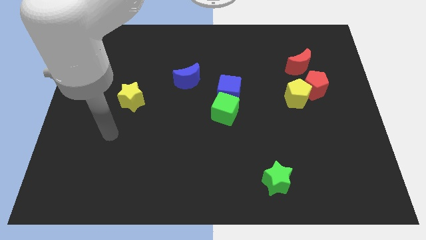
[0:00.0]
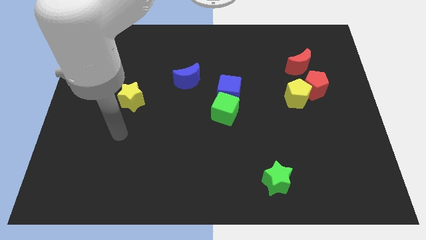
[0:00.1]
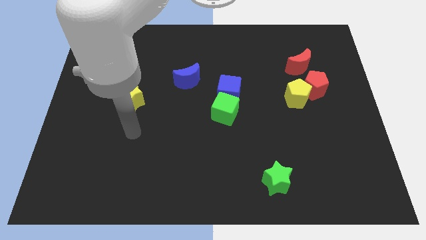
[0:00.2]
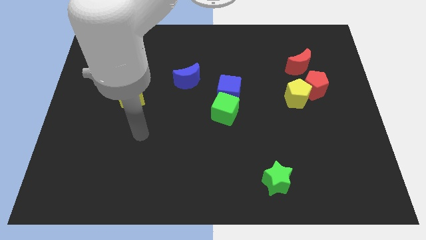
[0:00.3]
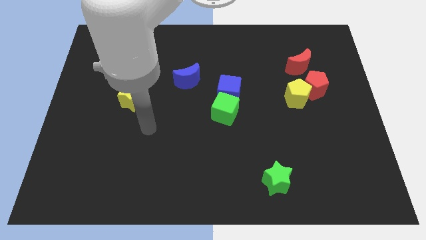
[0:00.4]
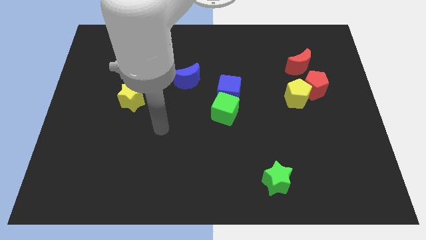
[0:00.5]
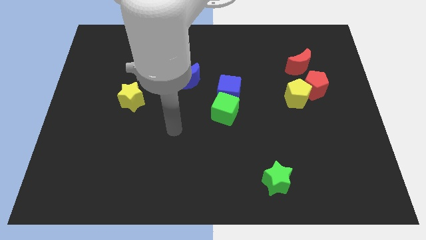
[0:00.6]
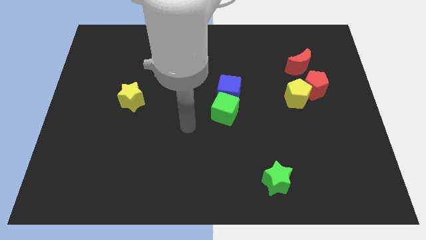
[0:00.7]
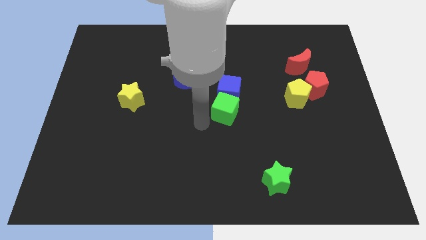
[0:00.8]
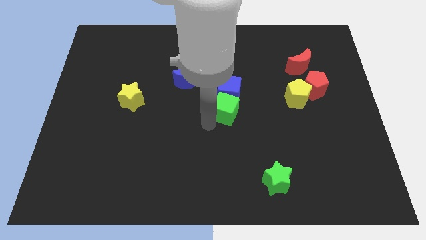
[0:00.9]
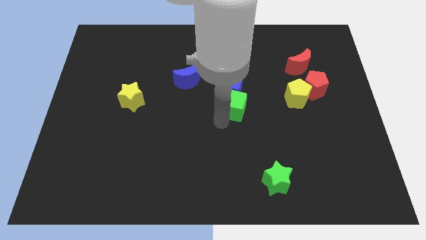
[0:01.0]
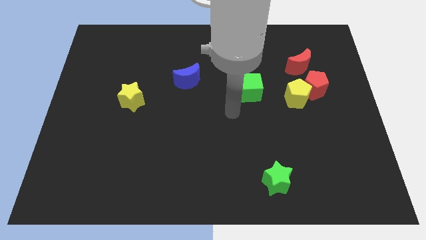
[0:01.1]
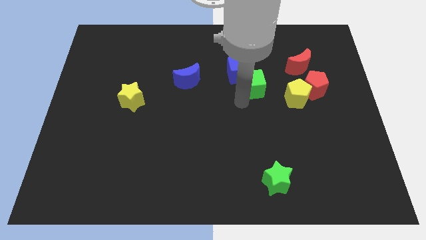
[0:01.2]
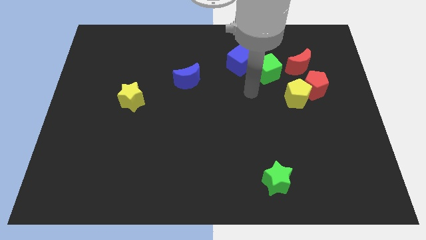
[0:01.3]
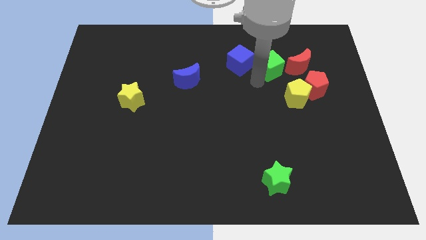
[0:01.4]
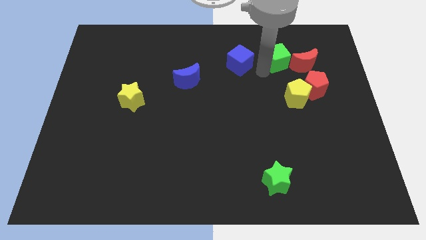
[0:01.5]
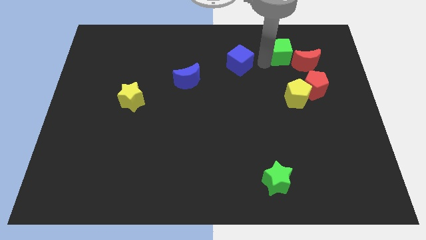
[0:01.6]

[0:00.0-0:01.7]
separate the blue cube from the green cube

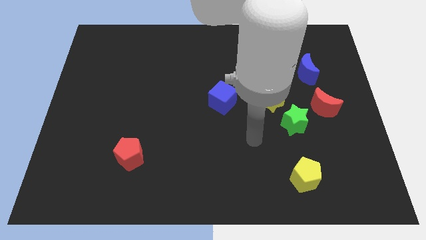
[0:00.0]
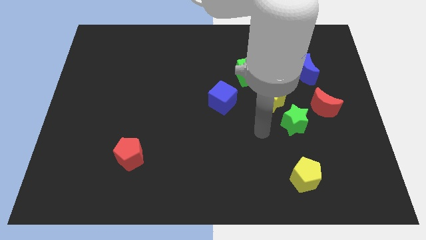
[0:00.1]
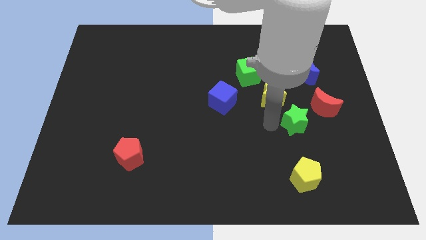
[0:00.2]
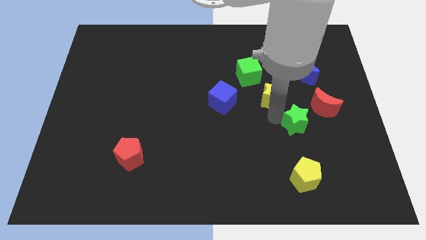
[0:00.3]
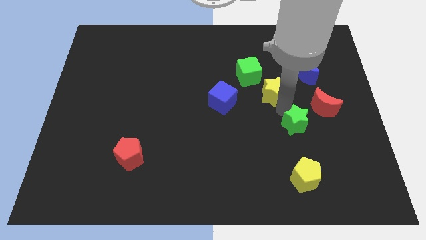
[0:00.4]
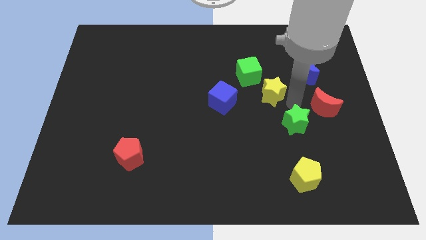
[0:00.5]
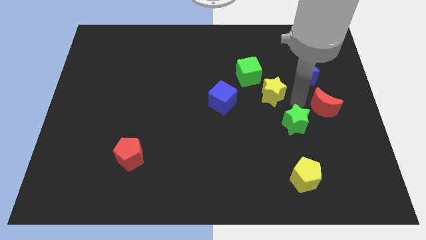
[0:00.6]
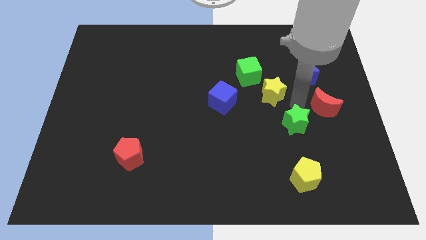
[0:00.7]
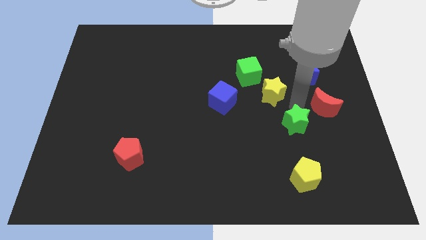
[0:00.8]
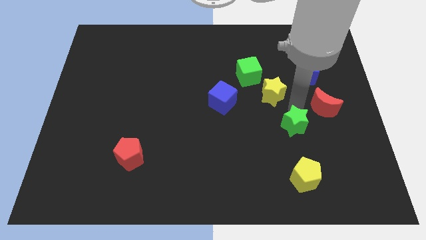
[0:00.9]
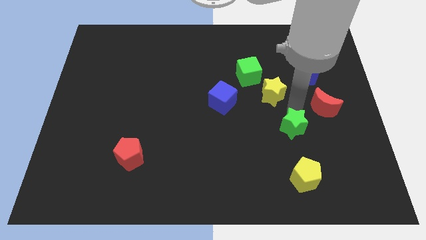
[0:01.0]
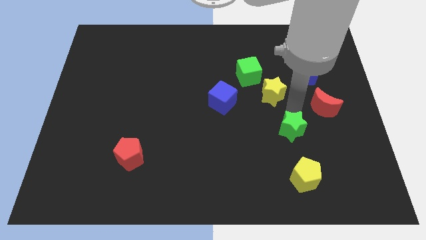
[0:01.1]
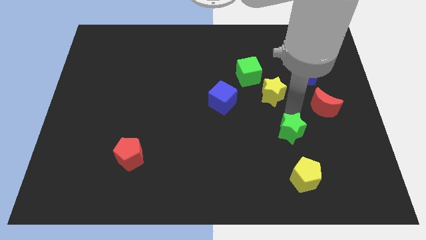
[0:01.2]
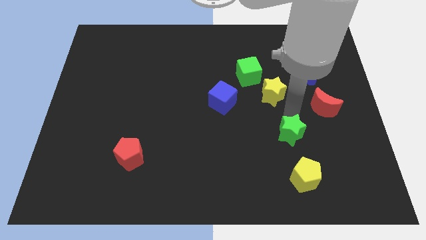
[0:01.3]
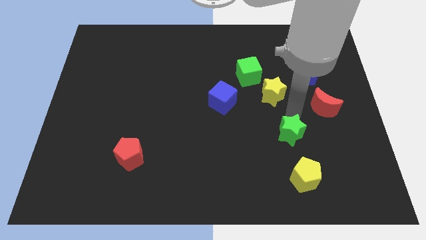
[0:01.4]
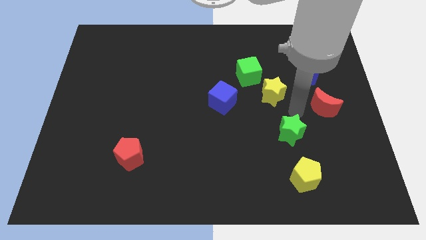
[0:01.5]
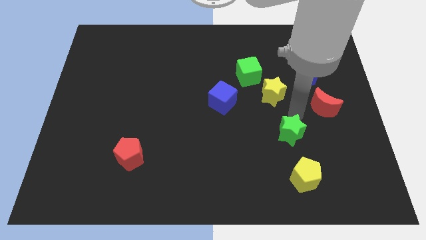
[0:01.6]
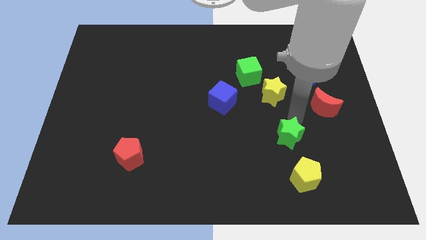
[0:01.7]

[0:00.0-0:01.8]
move the green star away from the yellow star and red moon

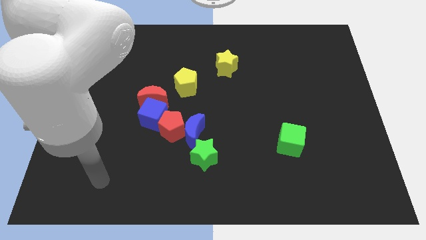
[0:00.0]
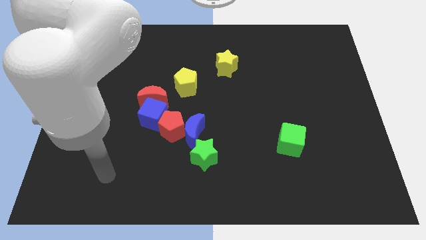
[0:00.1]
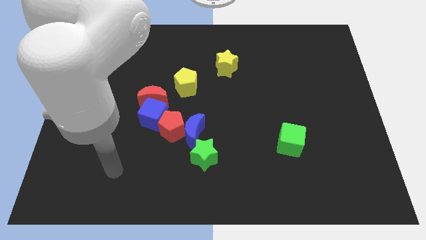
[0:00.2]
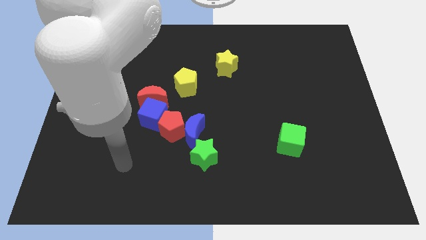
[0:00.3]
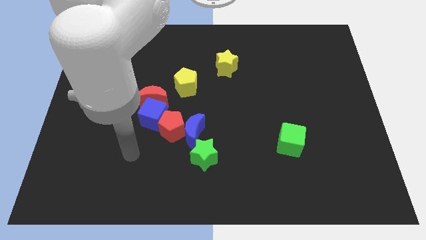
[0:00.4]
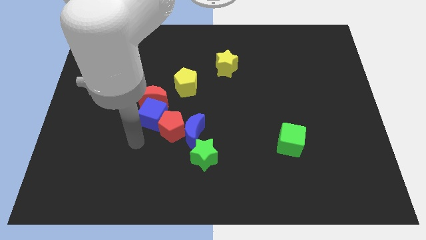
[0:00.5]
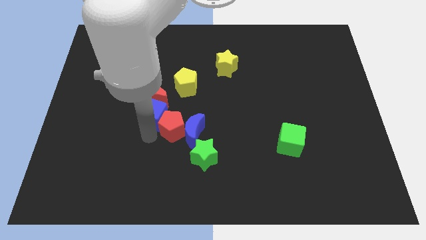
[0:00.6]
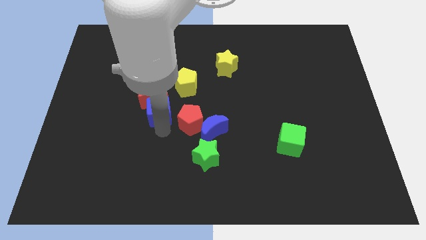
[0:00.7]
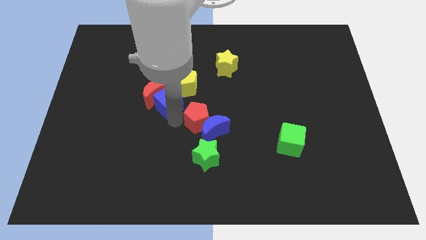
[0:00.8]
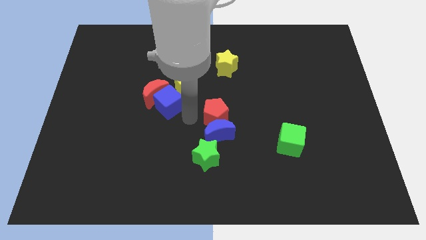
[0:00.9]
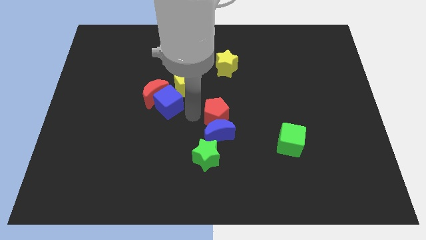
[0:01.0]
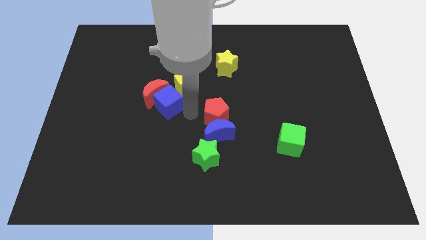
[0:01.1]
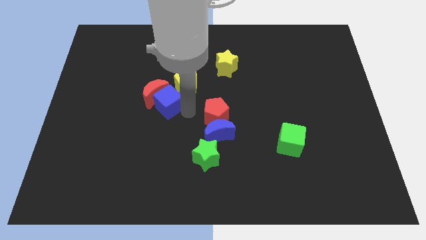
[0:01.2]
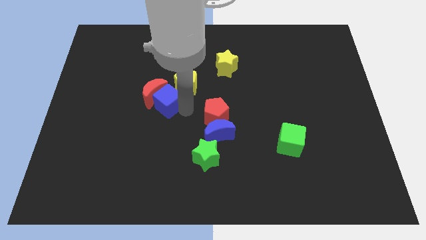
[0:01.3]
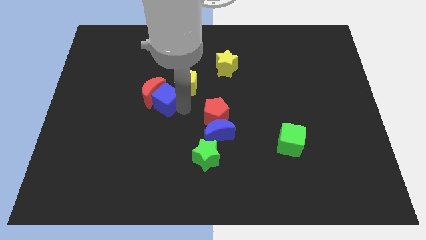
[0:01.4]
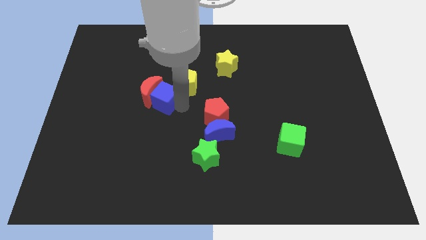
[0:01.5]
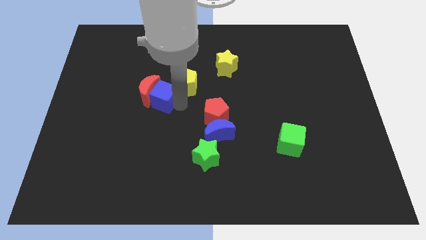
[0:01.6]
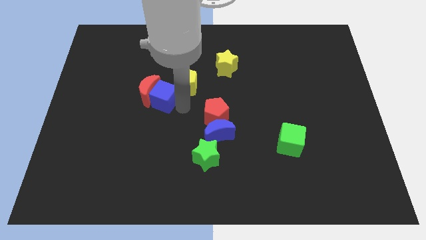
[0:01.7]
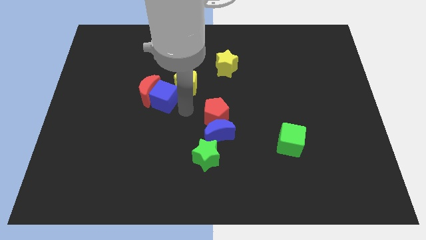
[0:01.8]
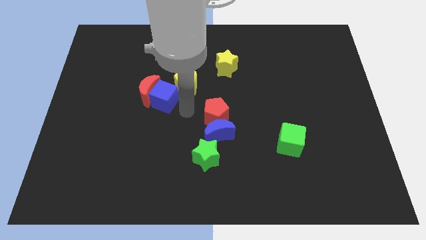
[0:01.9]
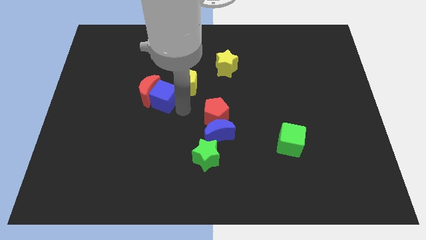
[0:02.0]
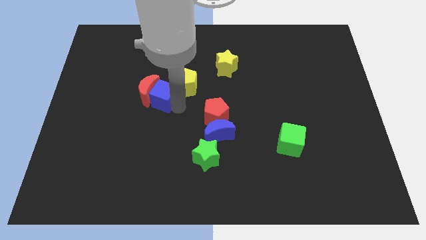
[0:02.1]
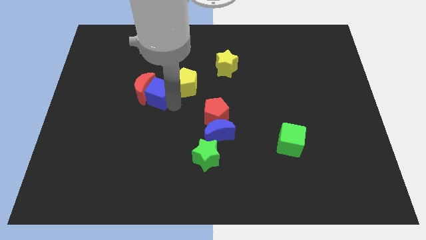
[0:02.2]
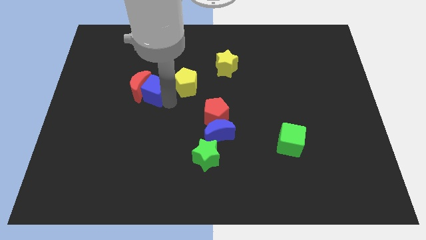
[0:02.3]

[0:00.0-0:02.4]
separate the blue cube from the red moon, red pentagon, and blue moon

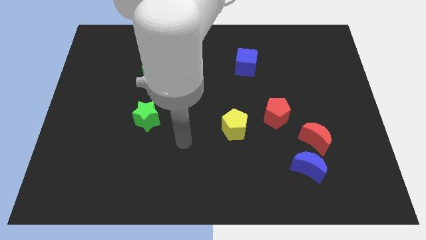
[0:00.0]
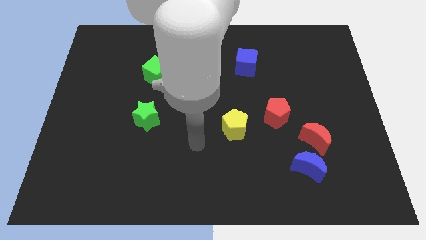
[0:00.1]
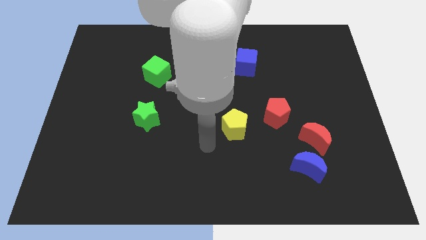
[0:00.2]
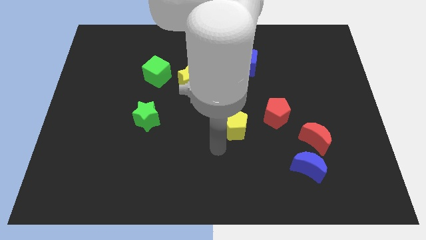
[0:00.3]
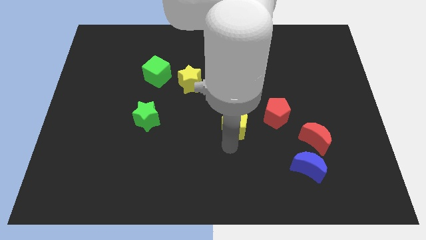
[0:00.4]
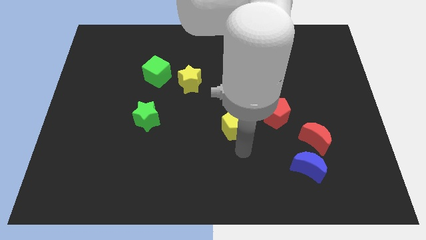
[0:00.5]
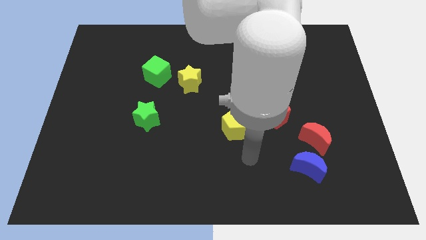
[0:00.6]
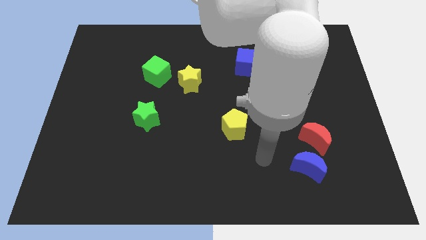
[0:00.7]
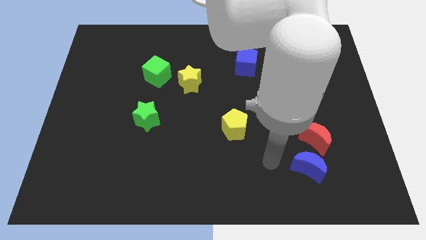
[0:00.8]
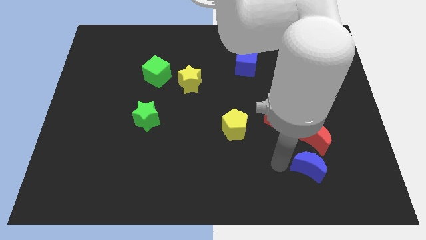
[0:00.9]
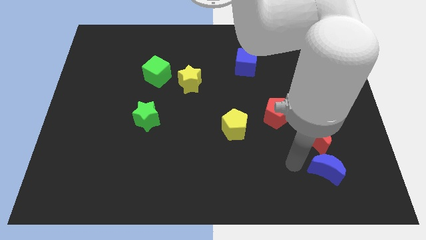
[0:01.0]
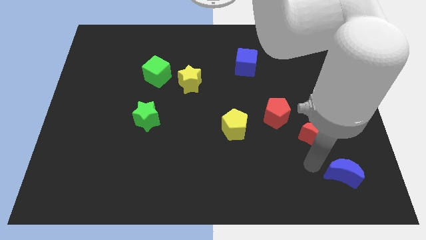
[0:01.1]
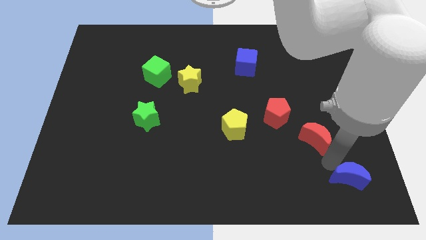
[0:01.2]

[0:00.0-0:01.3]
separate the red moon from the blue moon

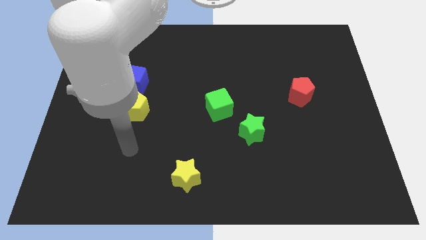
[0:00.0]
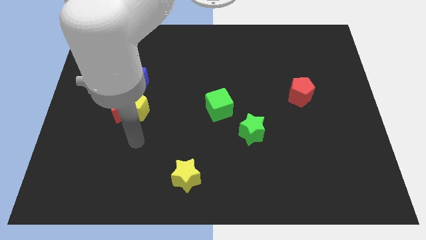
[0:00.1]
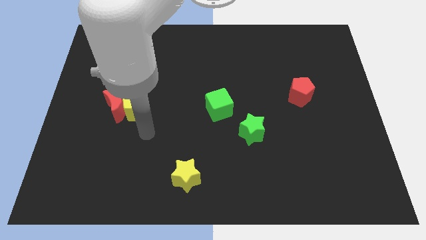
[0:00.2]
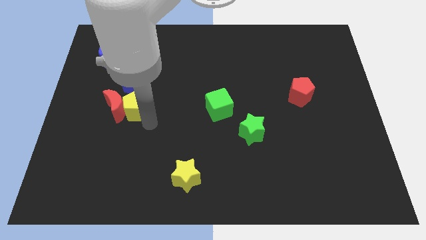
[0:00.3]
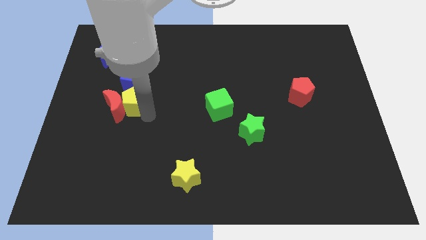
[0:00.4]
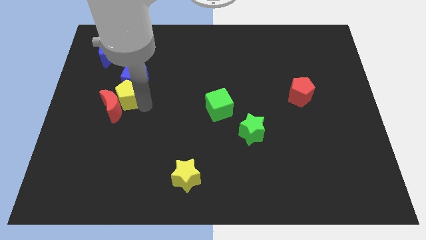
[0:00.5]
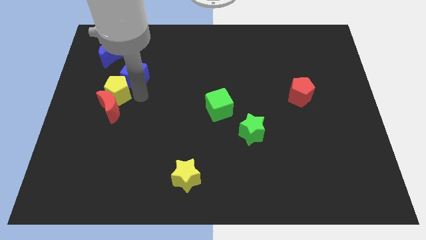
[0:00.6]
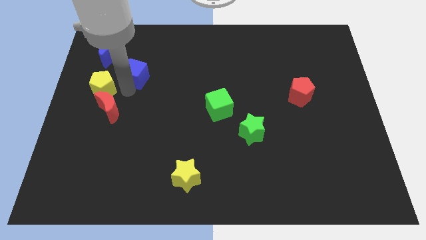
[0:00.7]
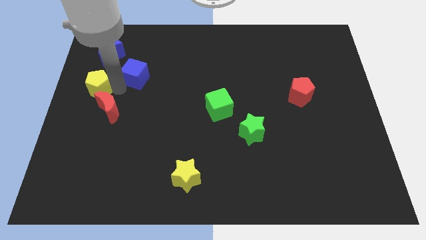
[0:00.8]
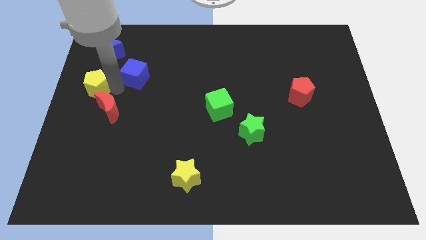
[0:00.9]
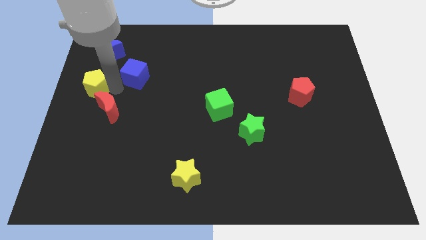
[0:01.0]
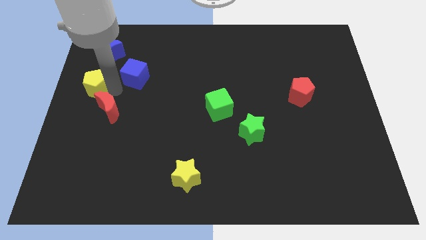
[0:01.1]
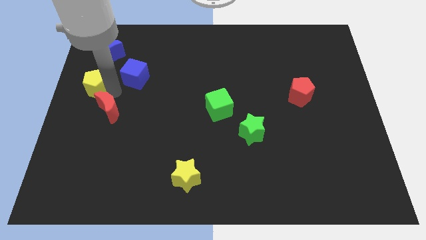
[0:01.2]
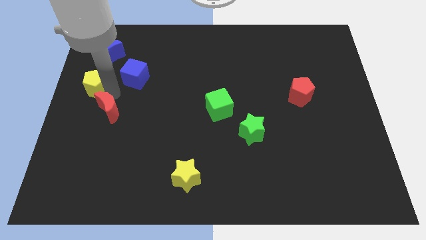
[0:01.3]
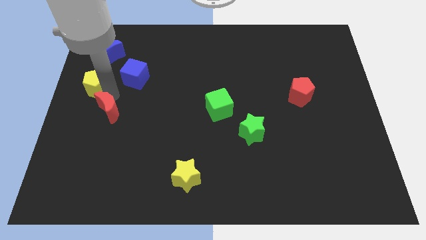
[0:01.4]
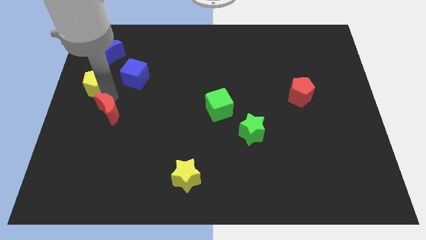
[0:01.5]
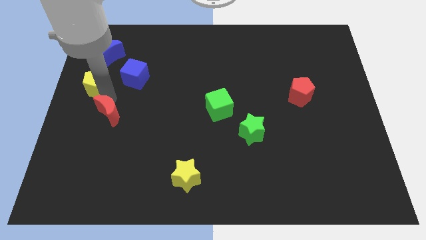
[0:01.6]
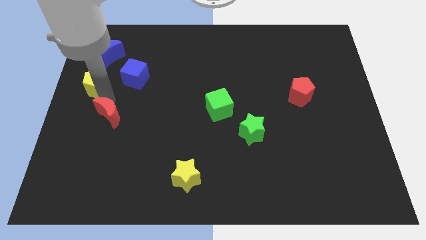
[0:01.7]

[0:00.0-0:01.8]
move the red moon away from the yellow pentagon and blue cube

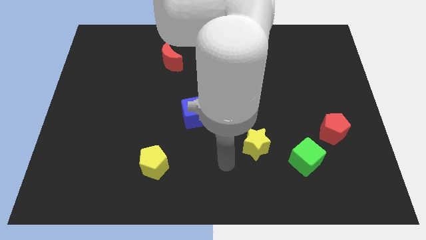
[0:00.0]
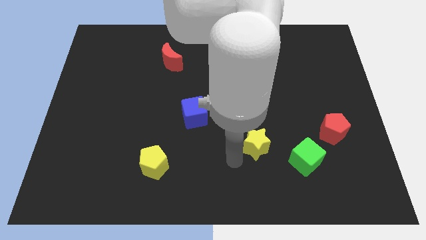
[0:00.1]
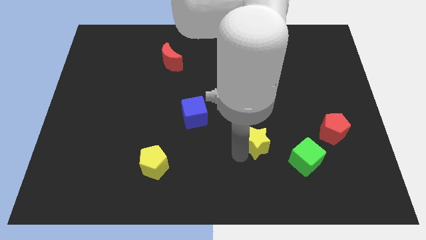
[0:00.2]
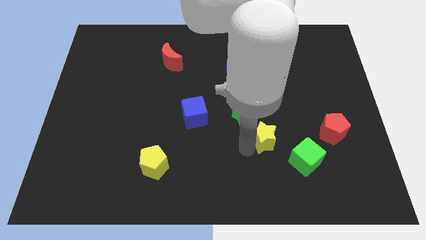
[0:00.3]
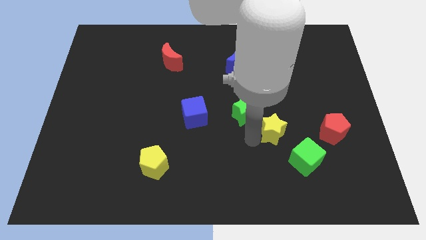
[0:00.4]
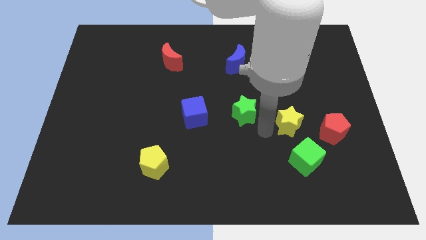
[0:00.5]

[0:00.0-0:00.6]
move the green star away from the yellow star
